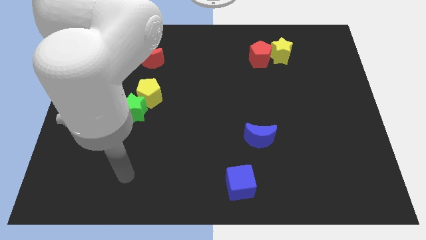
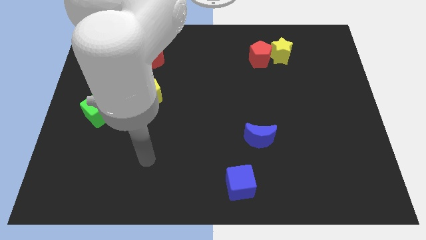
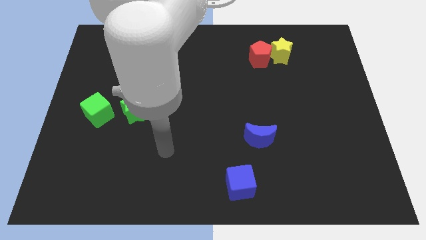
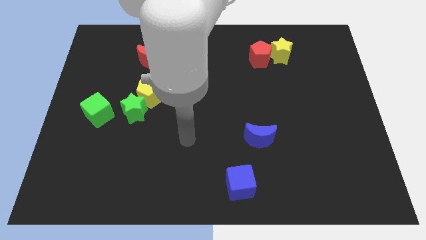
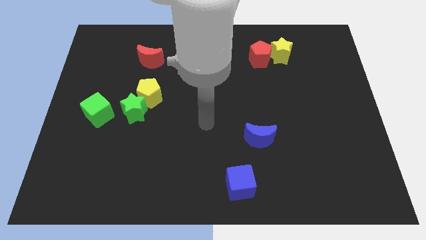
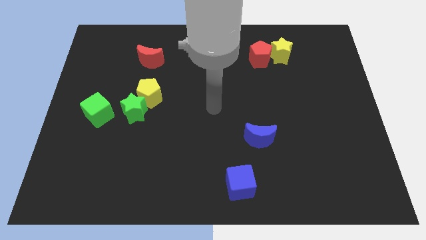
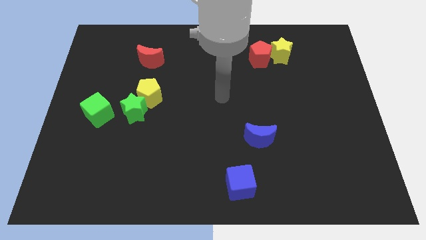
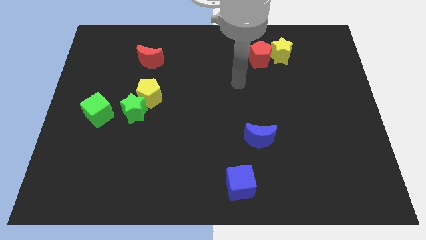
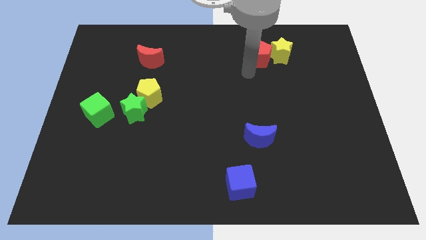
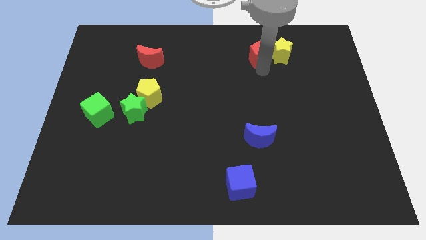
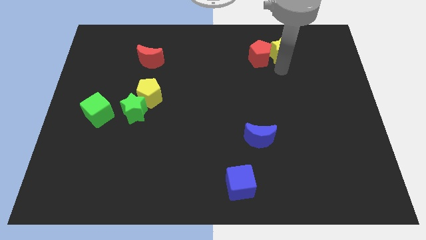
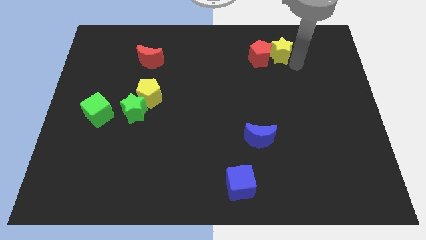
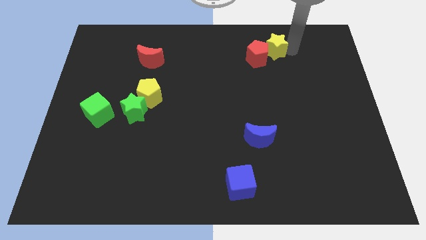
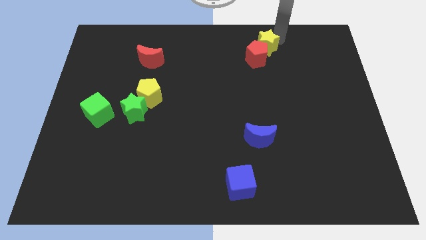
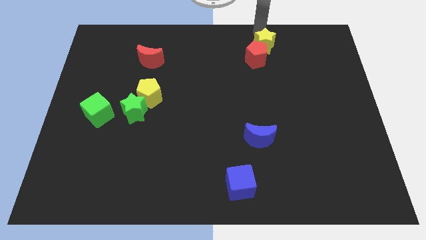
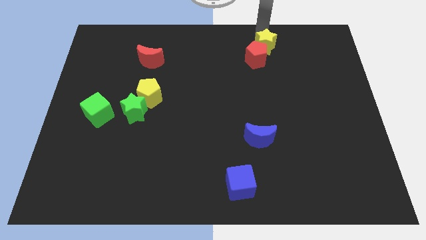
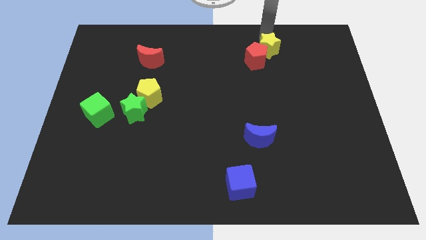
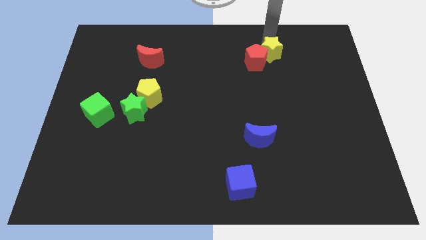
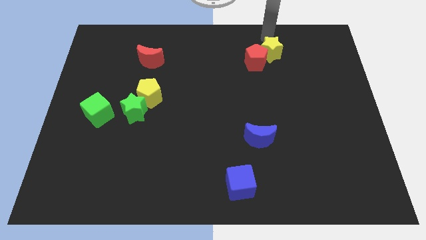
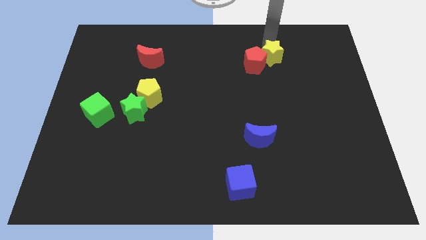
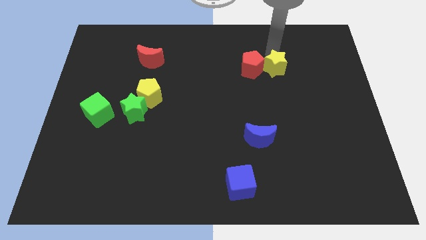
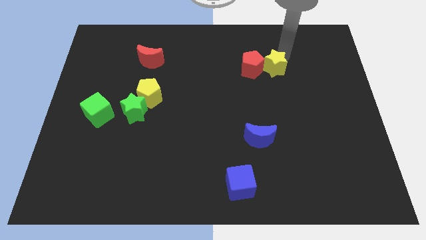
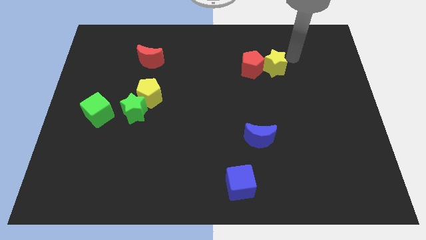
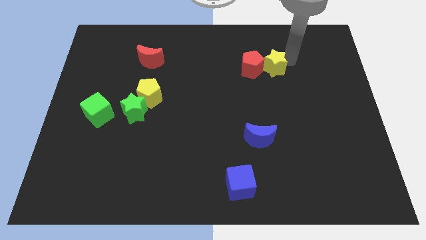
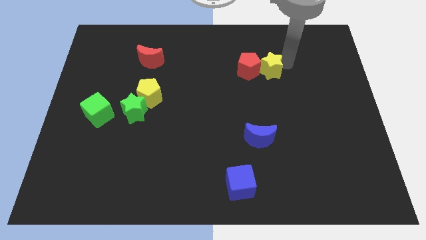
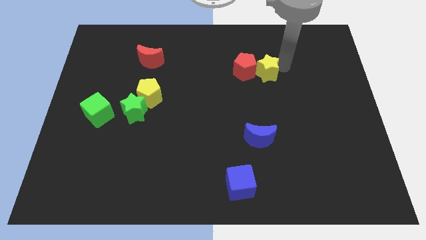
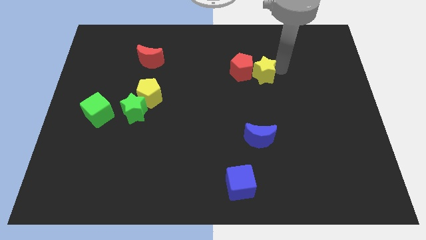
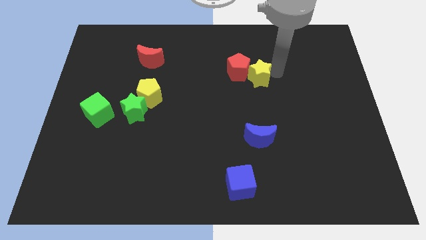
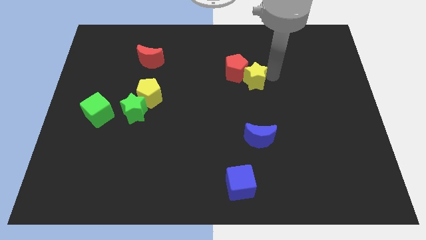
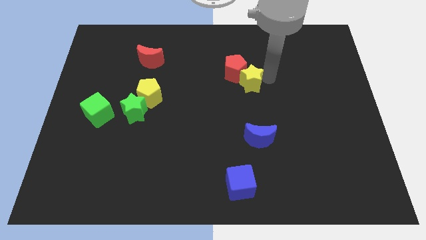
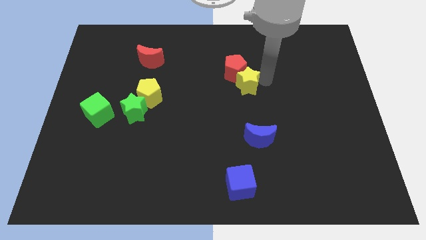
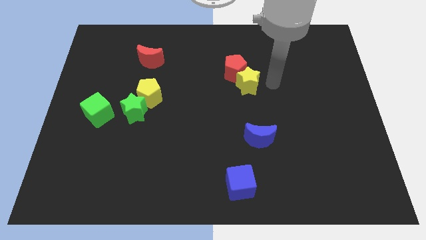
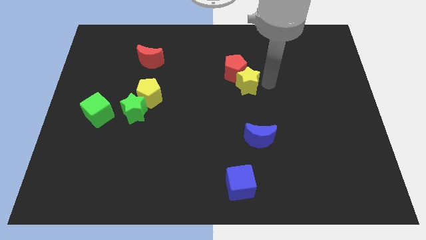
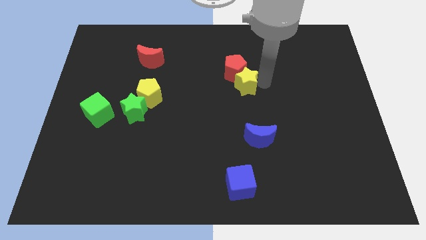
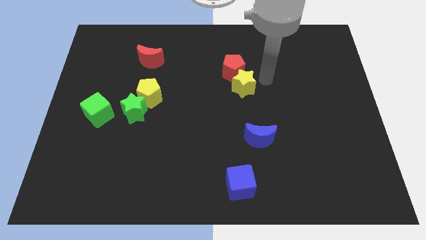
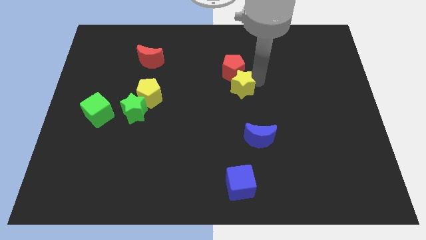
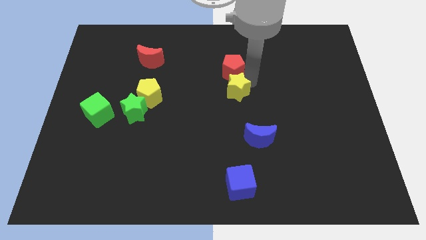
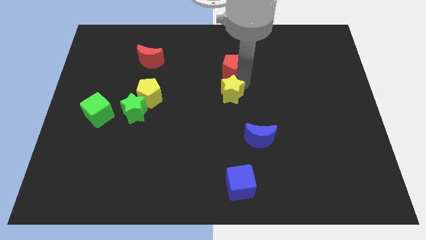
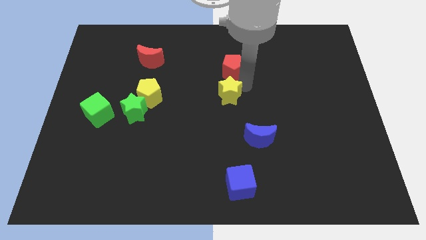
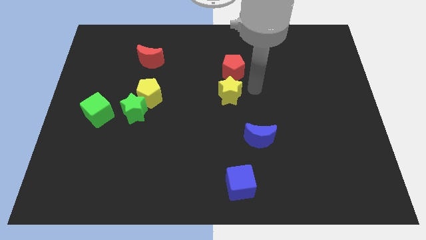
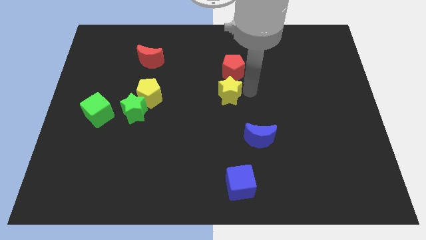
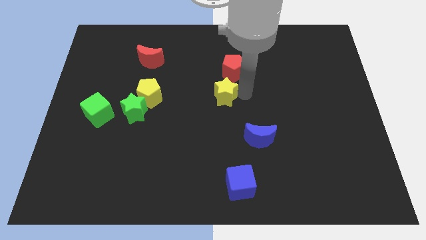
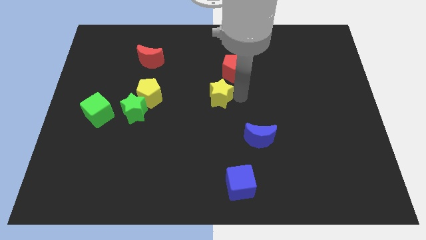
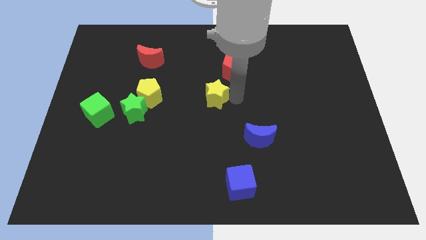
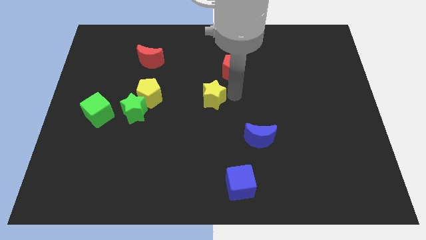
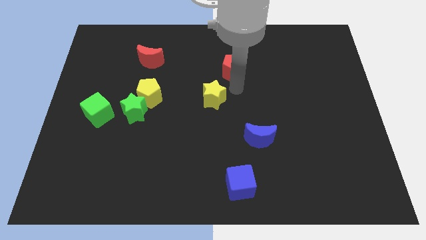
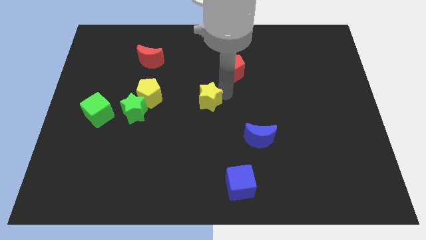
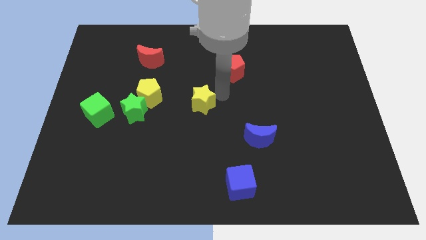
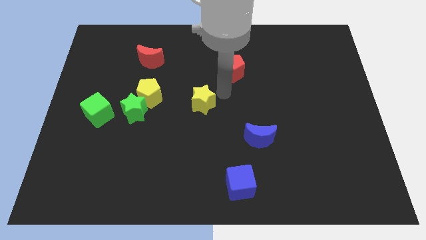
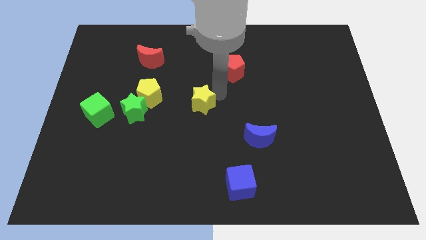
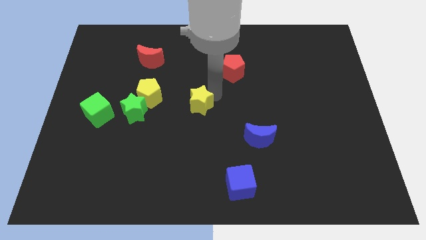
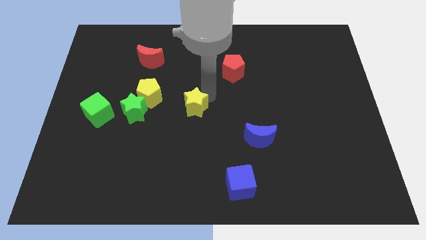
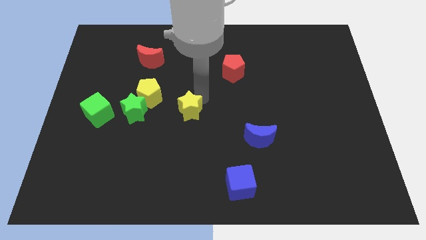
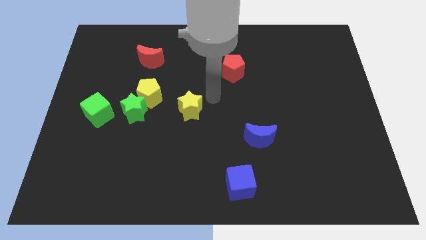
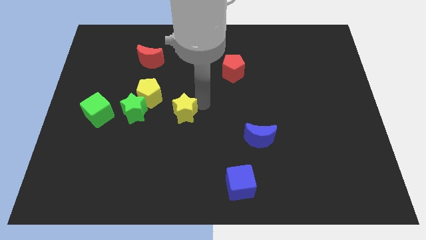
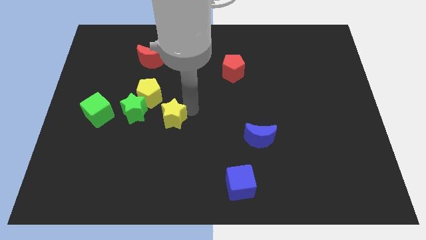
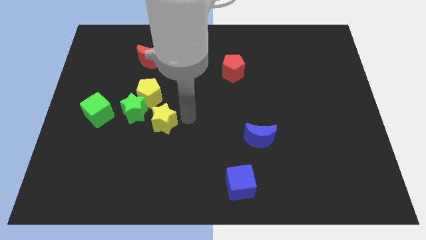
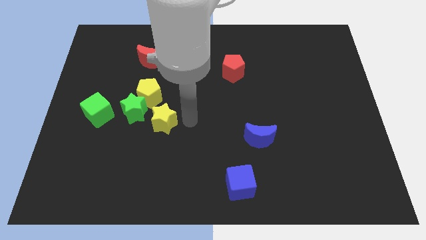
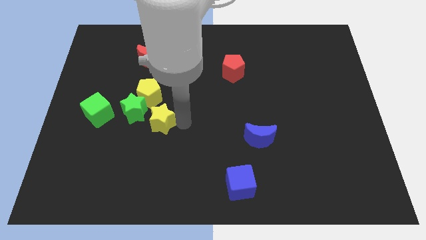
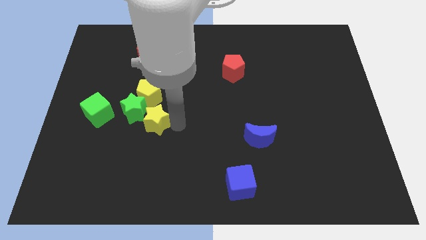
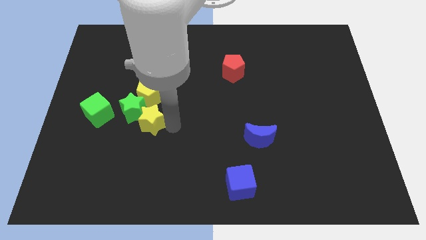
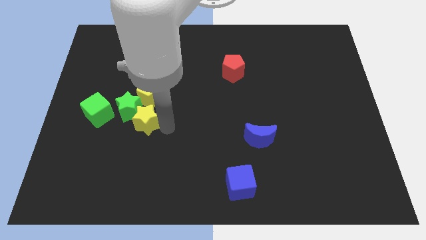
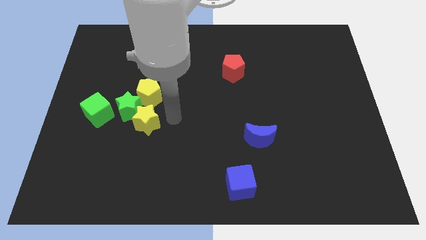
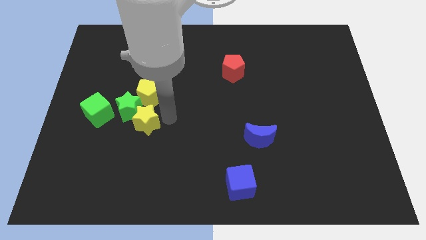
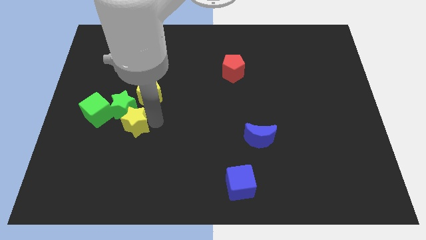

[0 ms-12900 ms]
move the yellow star to the bottom left side of the yellow pentagon

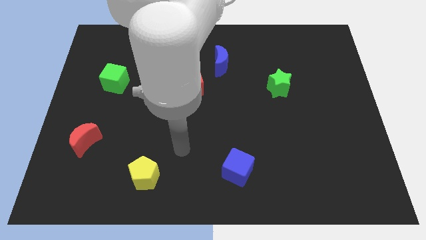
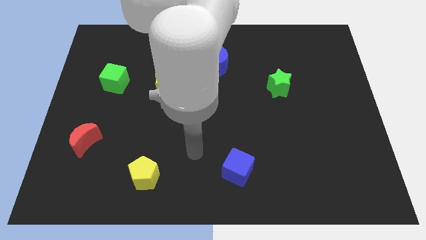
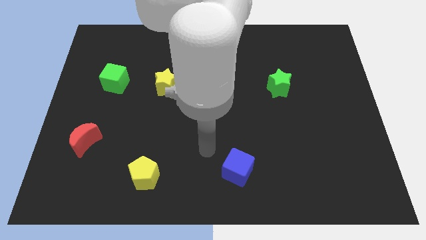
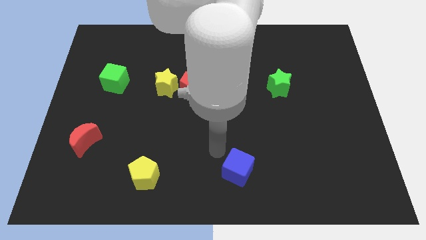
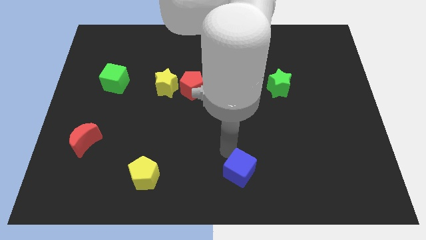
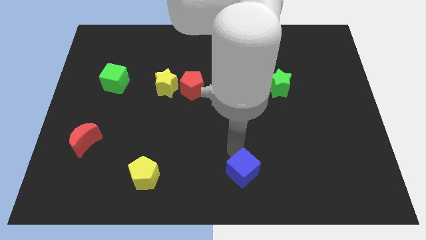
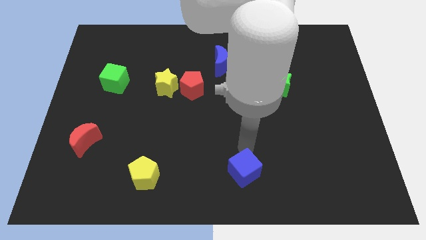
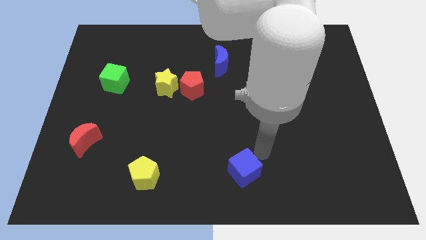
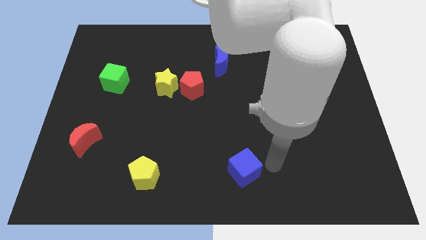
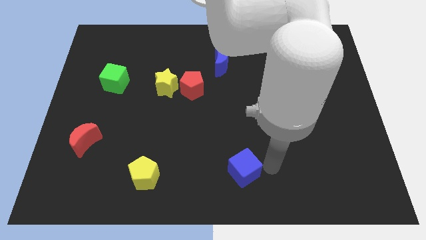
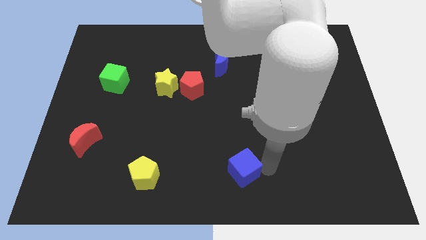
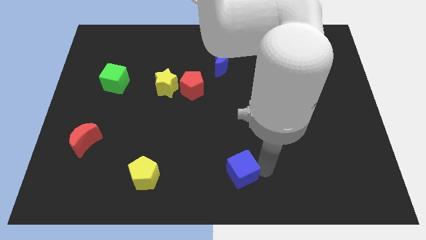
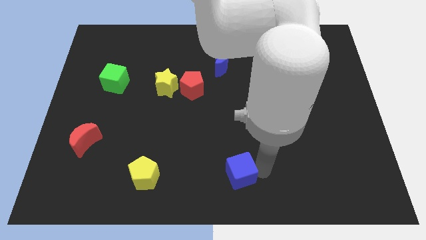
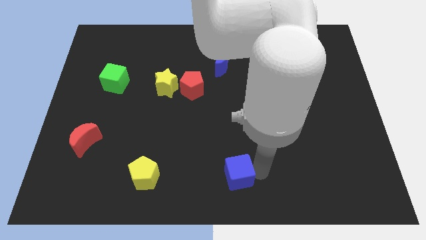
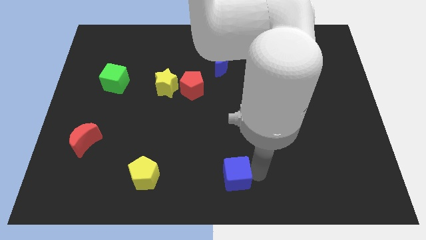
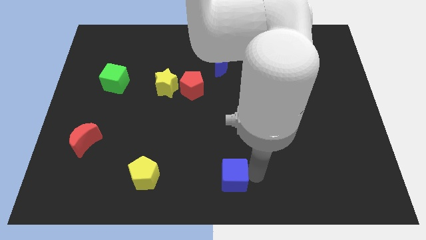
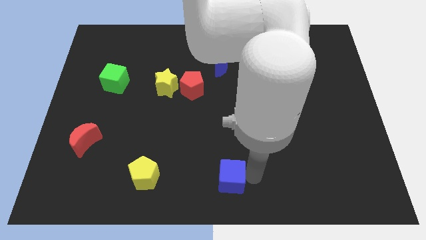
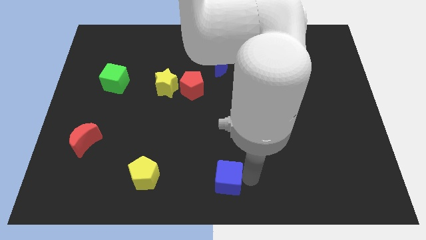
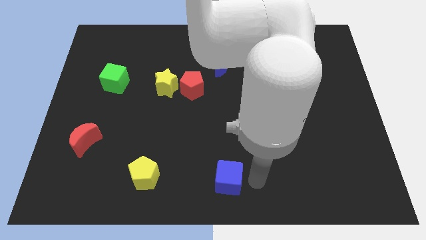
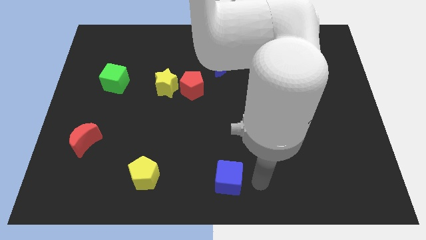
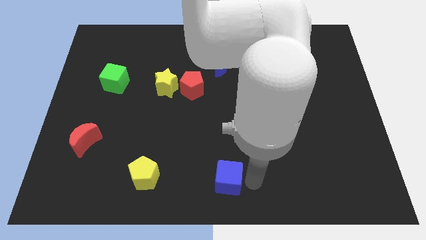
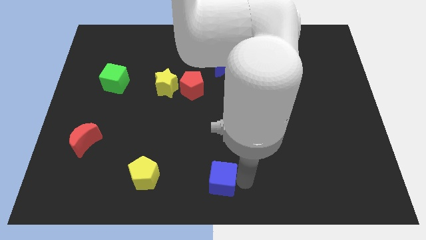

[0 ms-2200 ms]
put the blue cube right of the yellow pentagon
